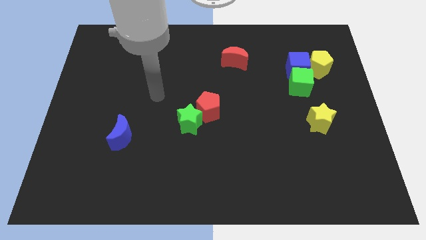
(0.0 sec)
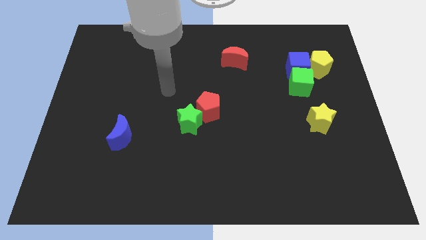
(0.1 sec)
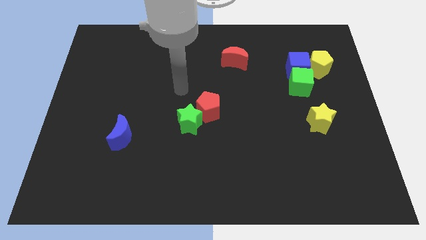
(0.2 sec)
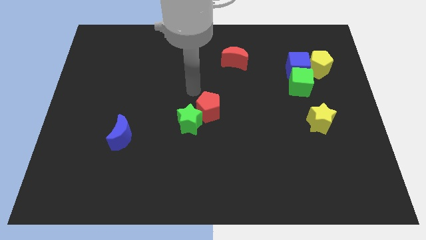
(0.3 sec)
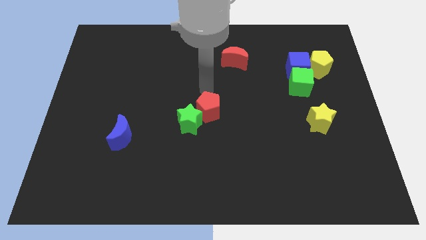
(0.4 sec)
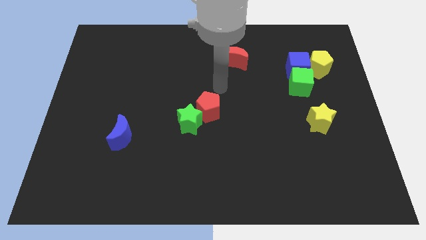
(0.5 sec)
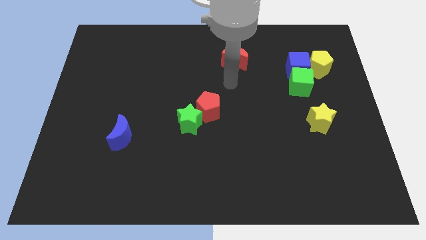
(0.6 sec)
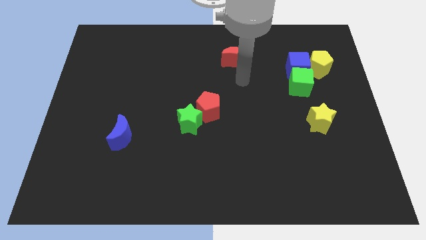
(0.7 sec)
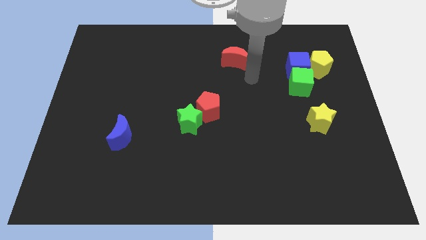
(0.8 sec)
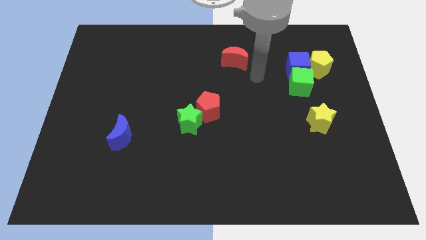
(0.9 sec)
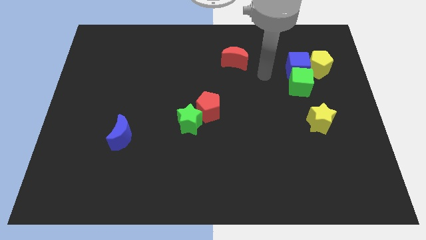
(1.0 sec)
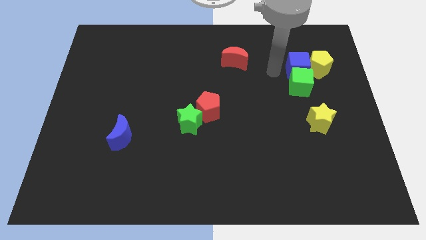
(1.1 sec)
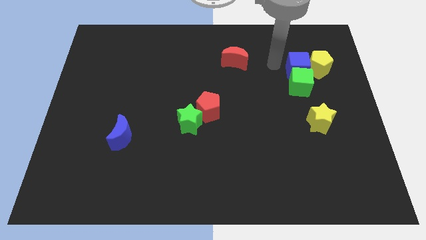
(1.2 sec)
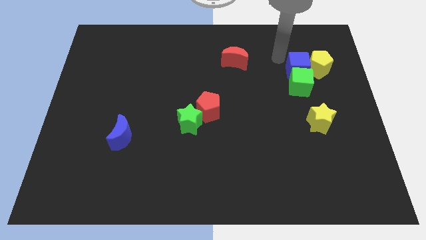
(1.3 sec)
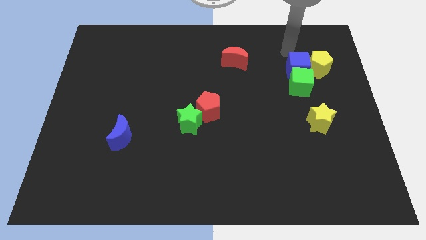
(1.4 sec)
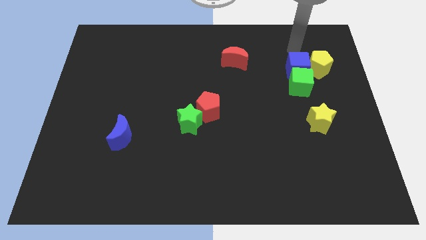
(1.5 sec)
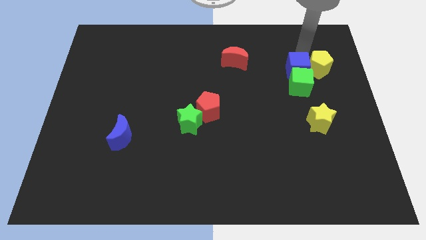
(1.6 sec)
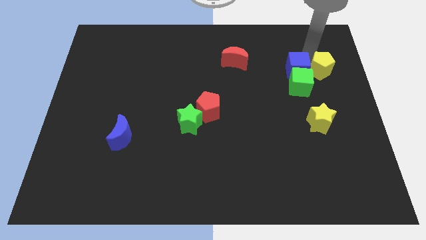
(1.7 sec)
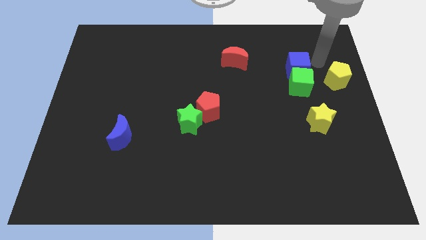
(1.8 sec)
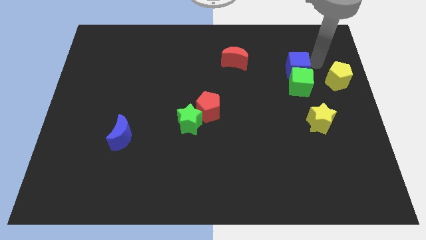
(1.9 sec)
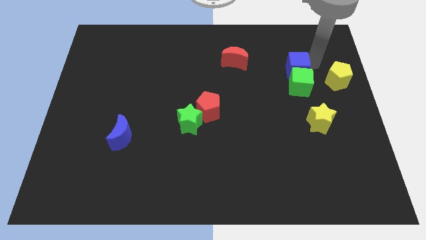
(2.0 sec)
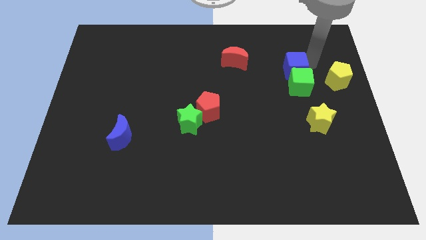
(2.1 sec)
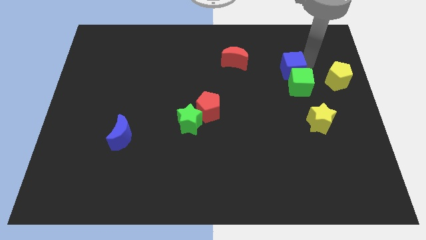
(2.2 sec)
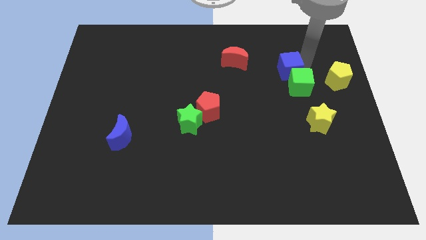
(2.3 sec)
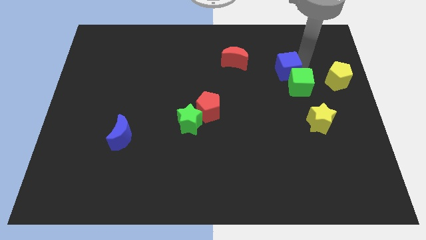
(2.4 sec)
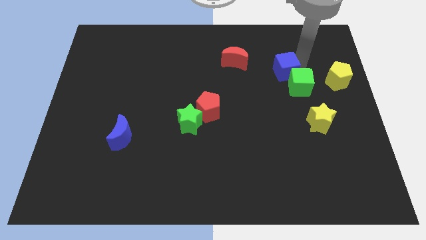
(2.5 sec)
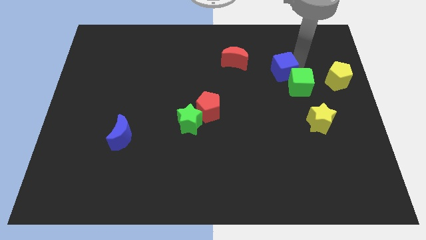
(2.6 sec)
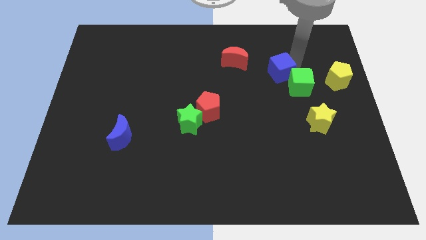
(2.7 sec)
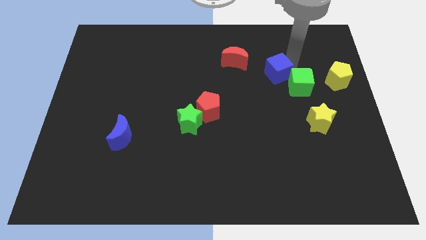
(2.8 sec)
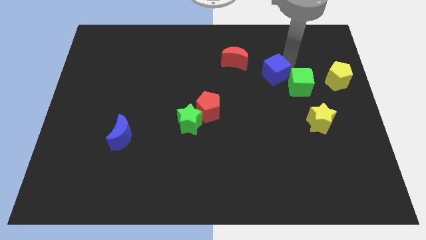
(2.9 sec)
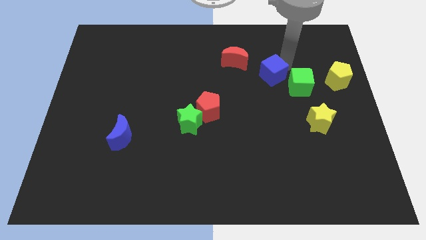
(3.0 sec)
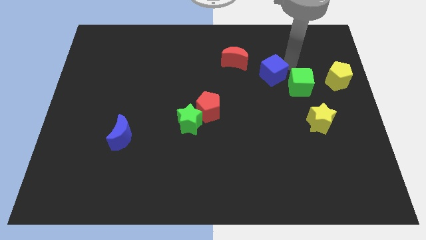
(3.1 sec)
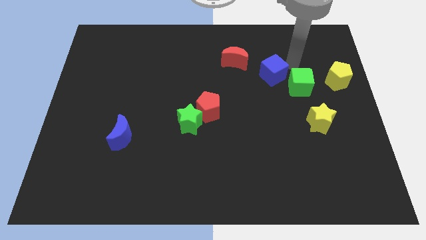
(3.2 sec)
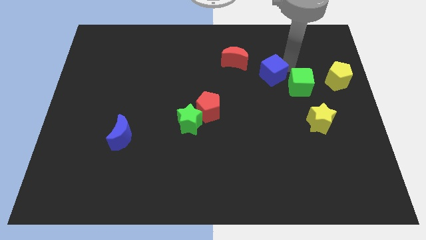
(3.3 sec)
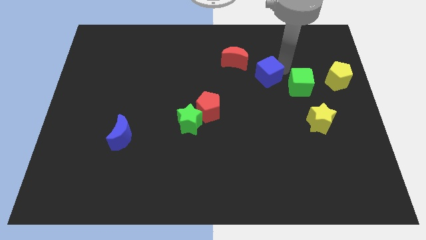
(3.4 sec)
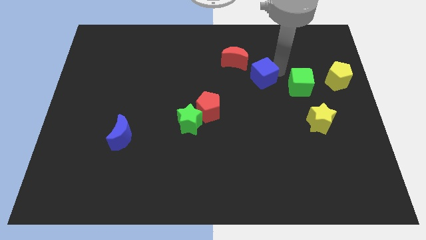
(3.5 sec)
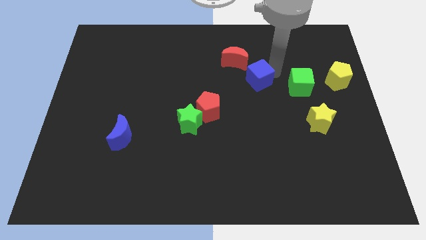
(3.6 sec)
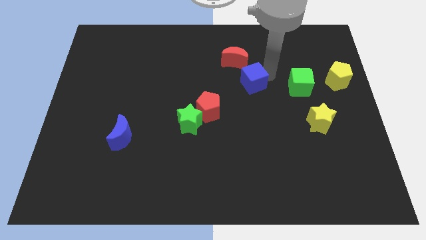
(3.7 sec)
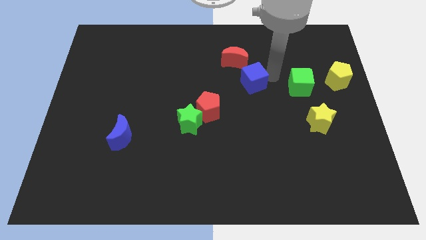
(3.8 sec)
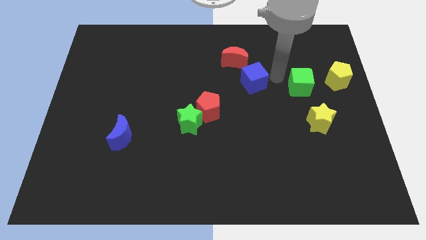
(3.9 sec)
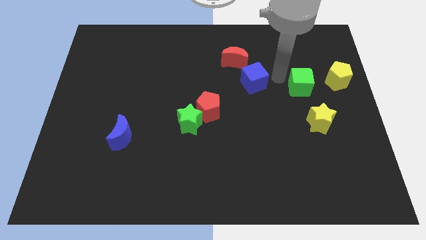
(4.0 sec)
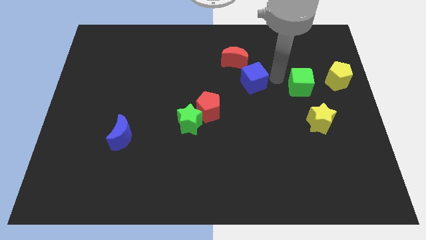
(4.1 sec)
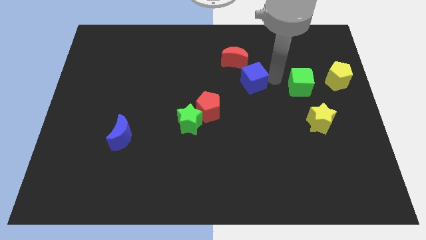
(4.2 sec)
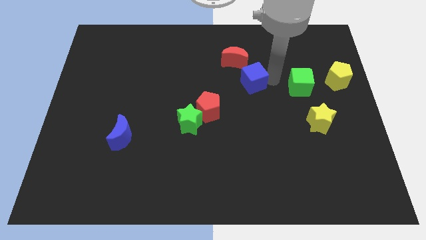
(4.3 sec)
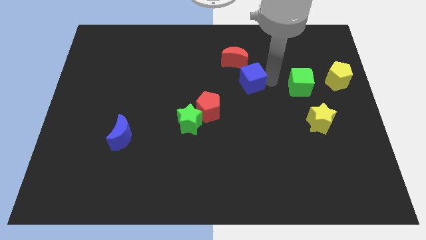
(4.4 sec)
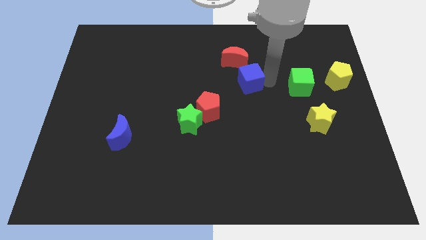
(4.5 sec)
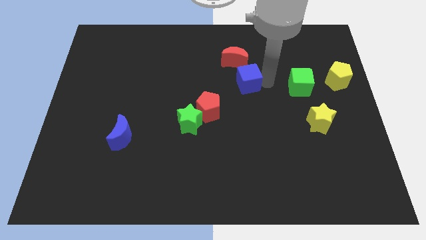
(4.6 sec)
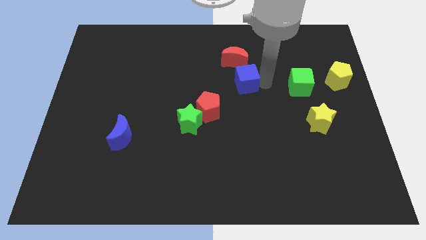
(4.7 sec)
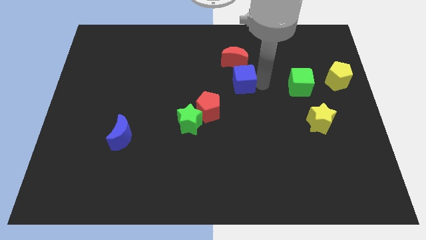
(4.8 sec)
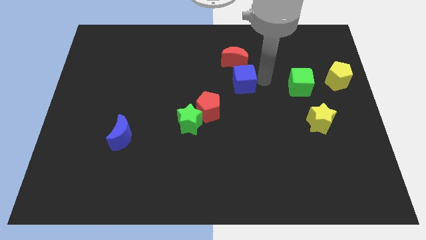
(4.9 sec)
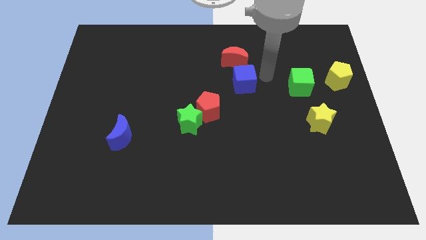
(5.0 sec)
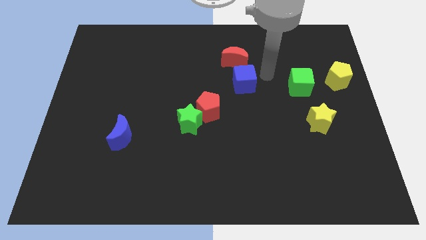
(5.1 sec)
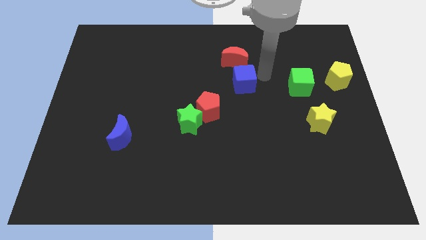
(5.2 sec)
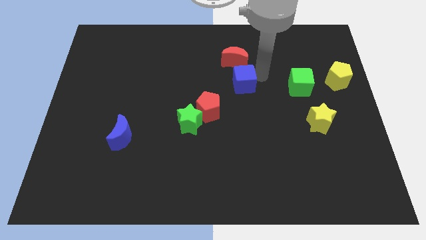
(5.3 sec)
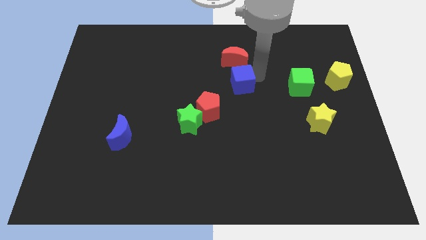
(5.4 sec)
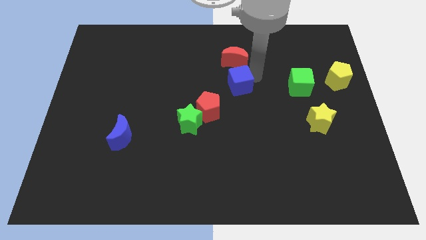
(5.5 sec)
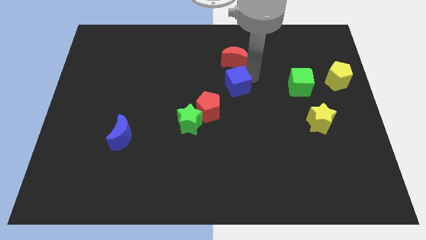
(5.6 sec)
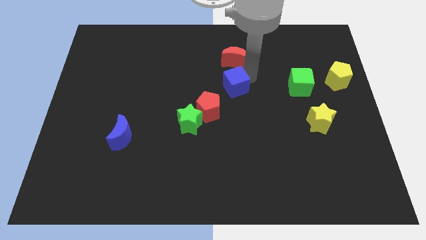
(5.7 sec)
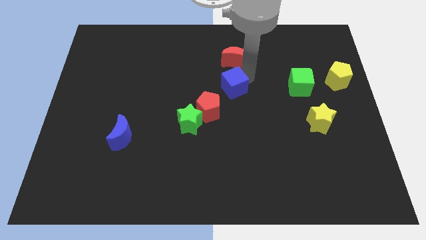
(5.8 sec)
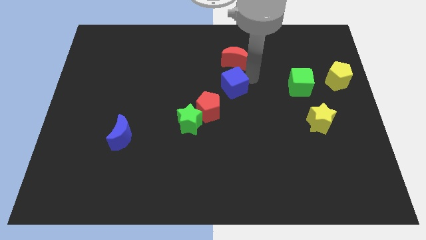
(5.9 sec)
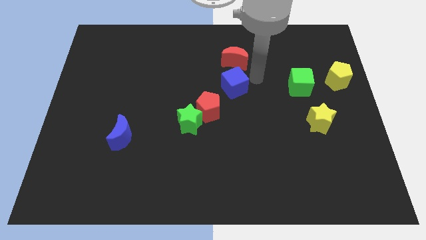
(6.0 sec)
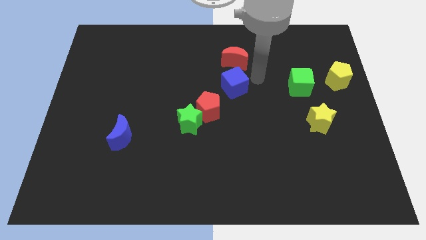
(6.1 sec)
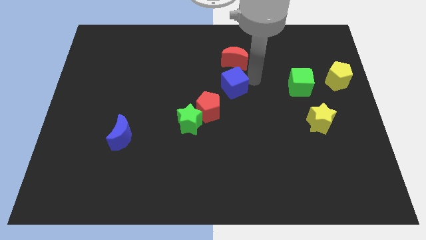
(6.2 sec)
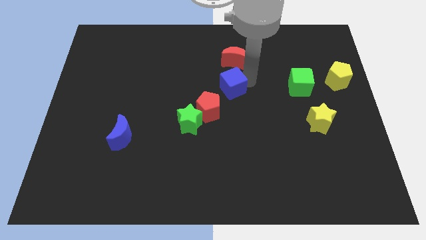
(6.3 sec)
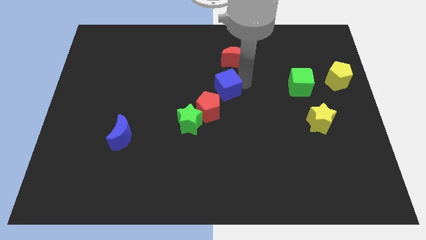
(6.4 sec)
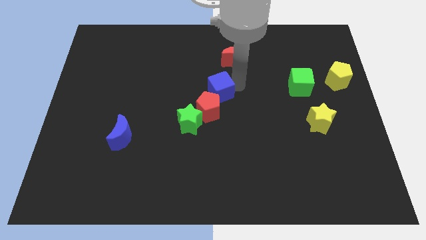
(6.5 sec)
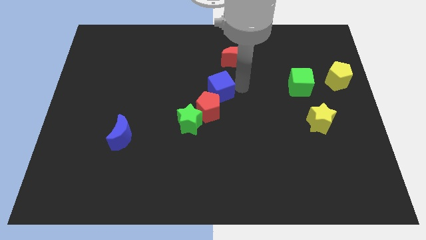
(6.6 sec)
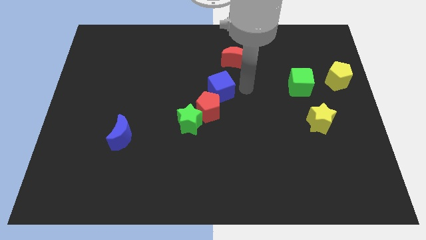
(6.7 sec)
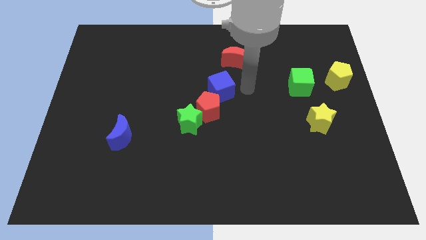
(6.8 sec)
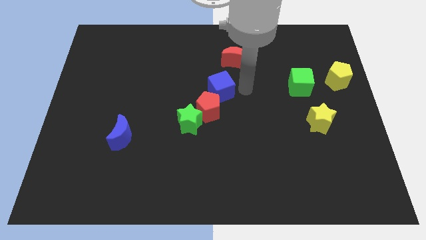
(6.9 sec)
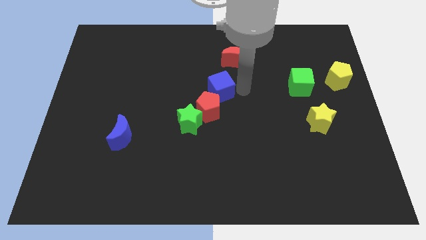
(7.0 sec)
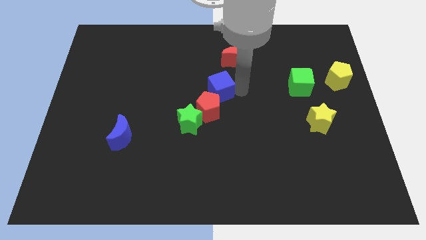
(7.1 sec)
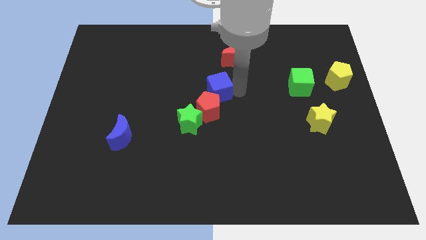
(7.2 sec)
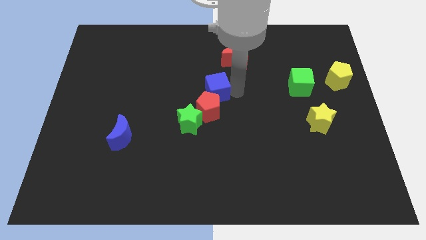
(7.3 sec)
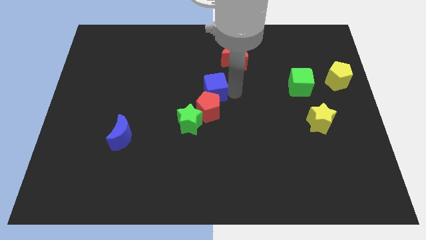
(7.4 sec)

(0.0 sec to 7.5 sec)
put the blue cube to the top left side of the red pentagon
